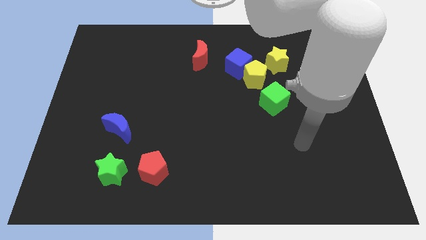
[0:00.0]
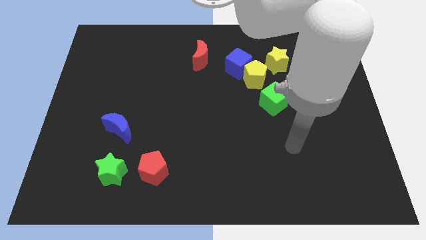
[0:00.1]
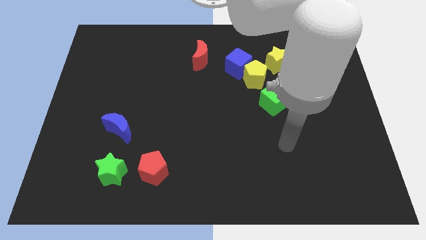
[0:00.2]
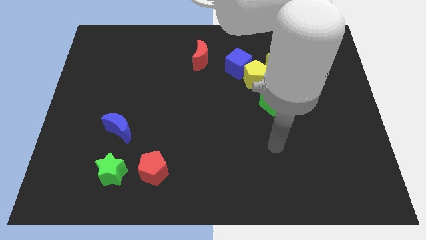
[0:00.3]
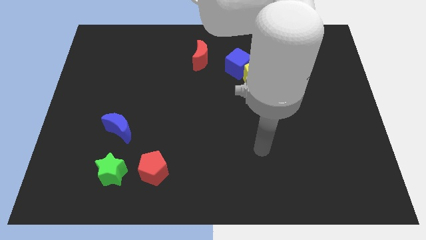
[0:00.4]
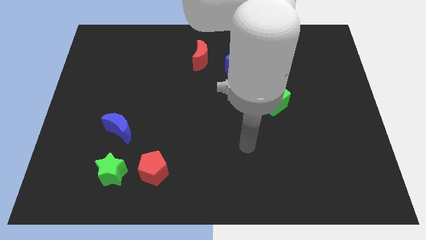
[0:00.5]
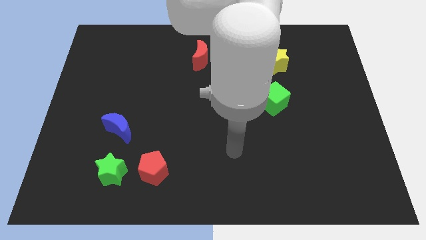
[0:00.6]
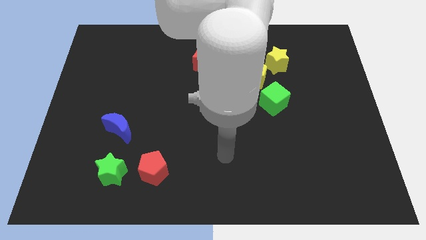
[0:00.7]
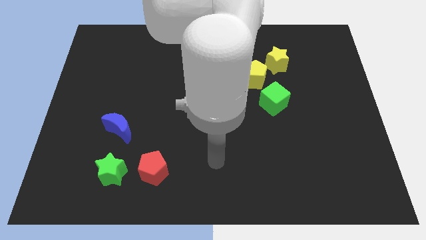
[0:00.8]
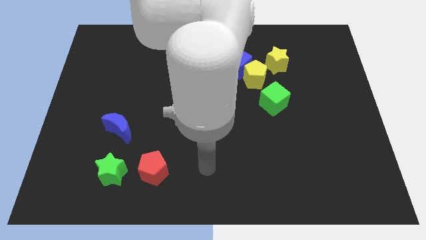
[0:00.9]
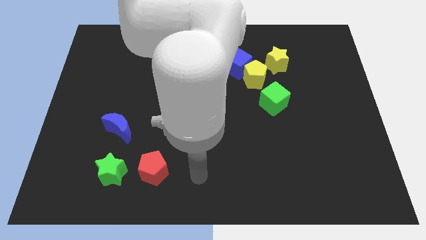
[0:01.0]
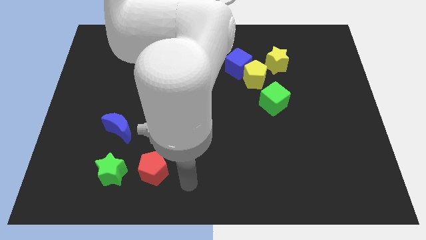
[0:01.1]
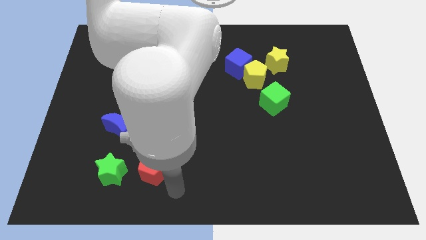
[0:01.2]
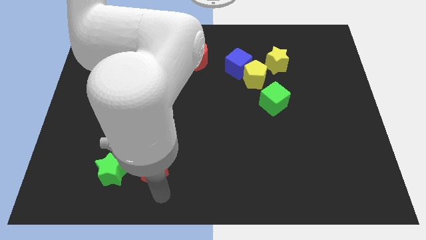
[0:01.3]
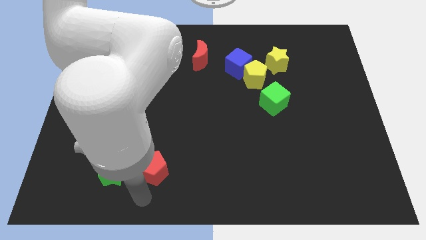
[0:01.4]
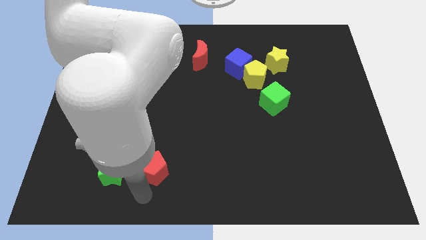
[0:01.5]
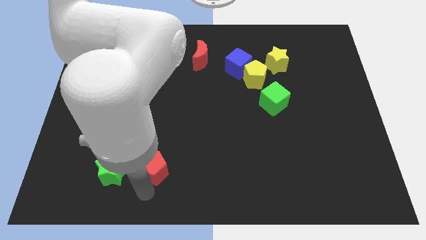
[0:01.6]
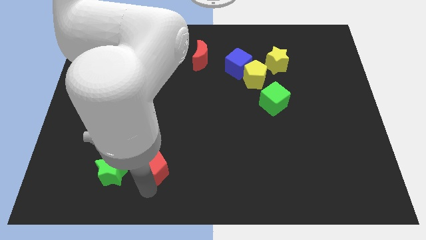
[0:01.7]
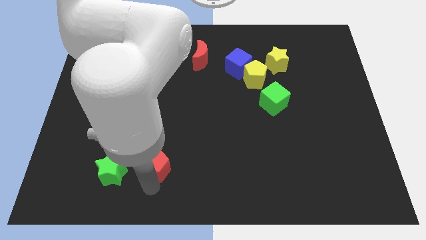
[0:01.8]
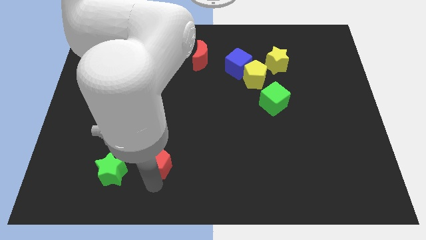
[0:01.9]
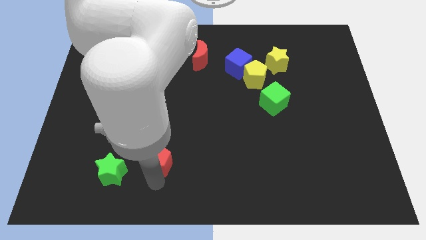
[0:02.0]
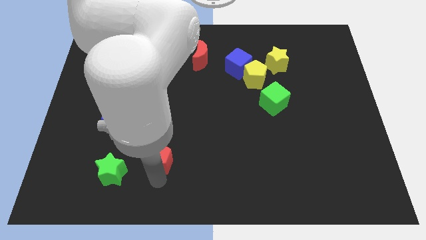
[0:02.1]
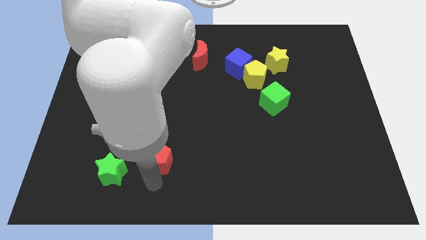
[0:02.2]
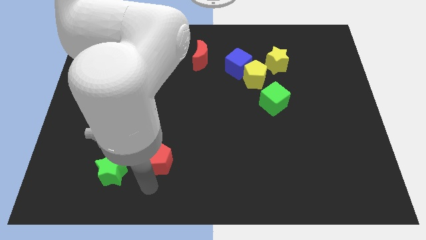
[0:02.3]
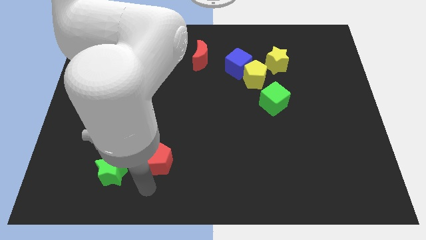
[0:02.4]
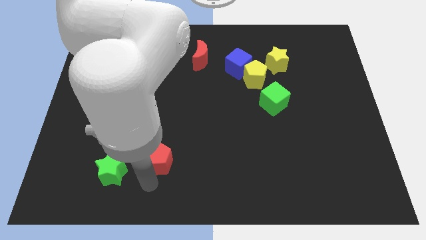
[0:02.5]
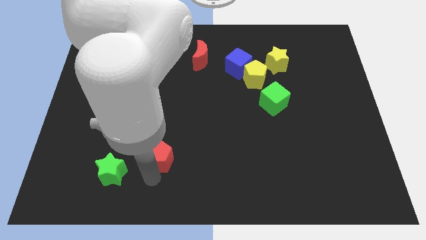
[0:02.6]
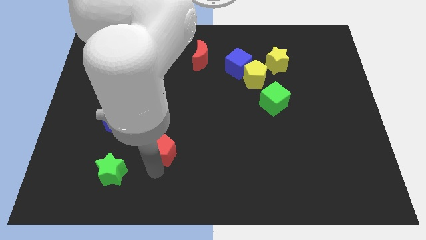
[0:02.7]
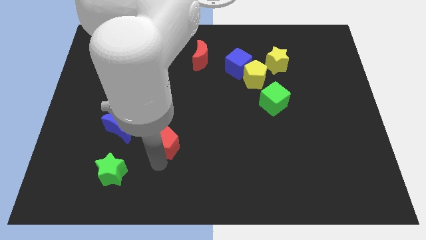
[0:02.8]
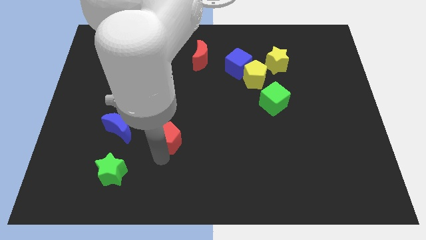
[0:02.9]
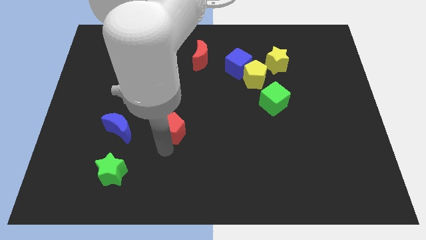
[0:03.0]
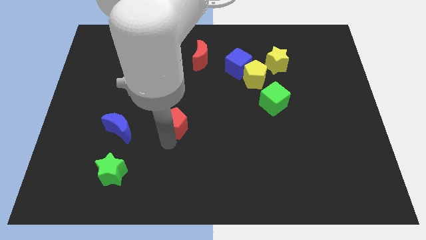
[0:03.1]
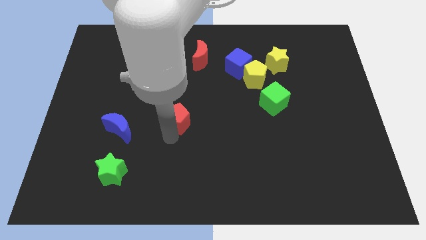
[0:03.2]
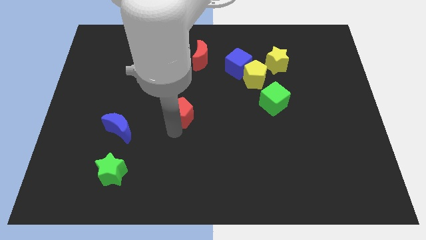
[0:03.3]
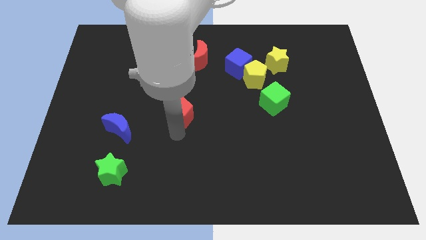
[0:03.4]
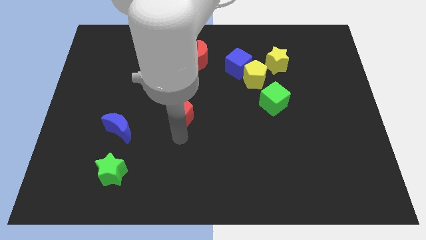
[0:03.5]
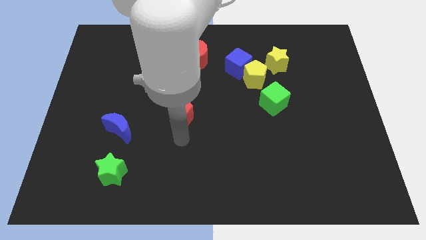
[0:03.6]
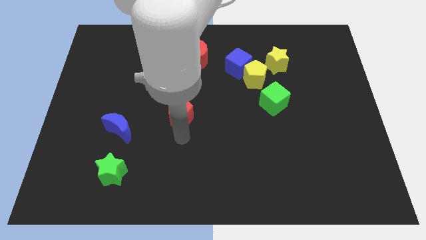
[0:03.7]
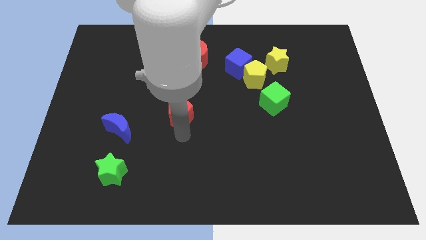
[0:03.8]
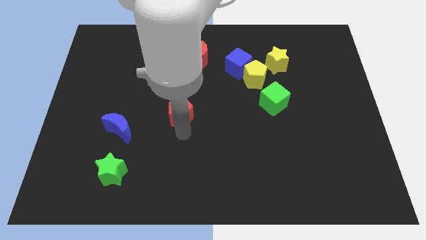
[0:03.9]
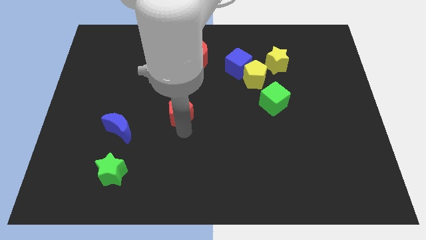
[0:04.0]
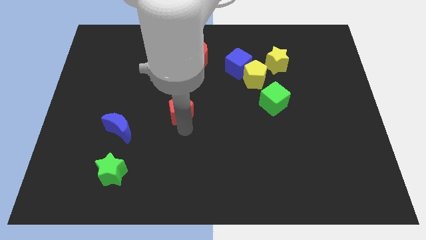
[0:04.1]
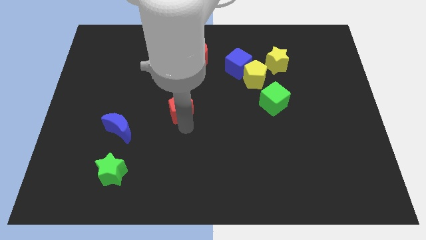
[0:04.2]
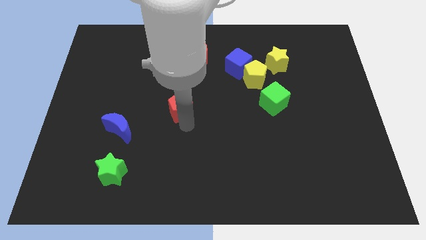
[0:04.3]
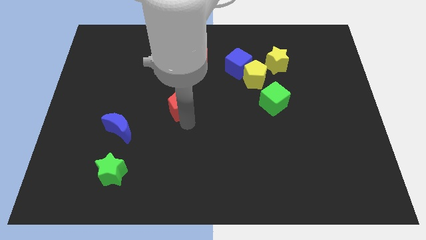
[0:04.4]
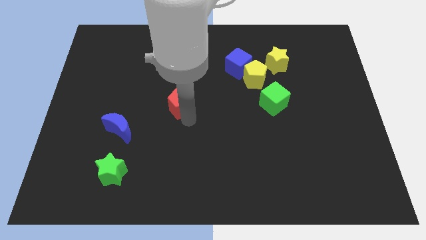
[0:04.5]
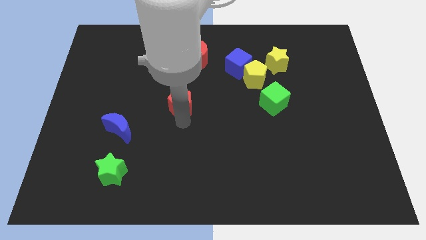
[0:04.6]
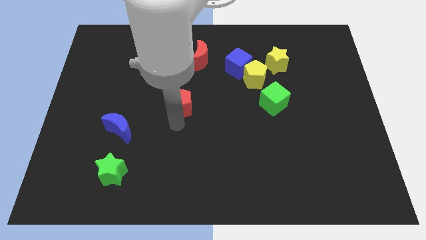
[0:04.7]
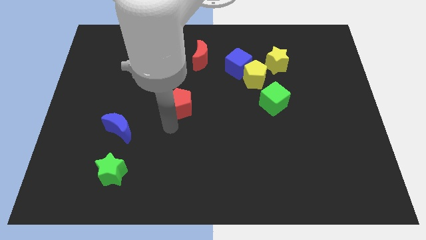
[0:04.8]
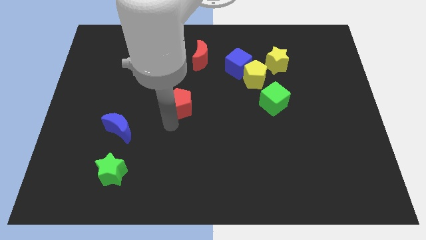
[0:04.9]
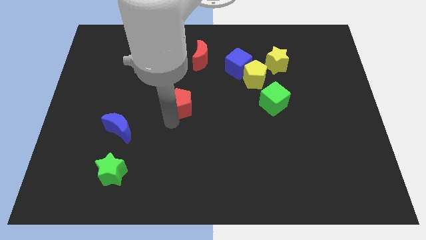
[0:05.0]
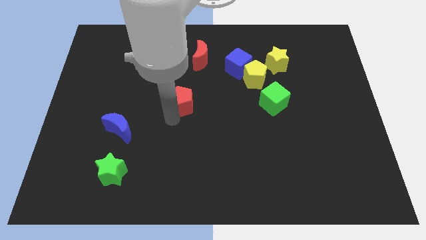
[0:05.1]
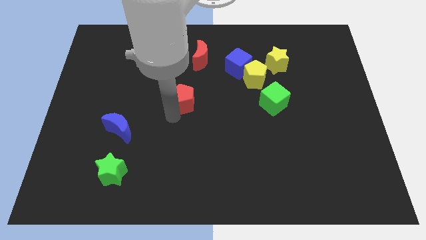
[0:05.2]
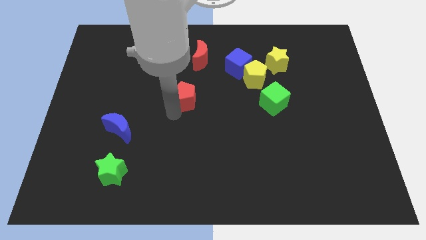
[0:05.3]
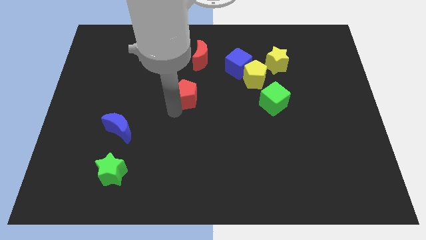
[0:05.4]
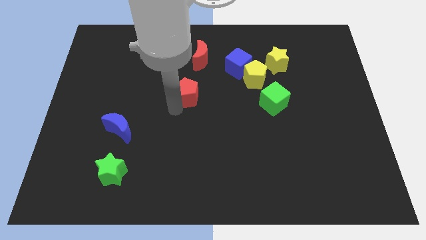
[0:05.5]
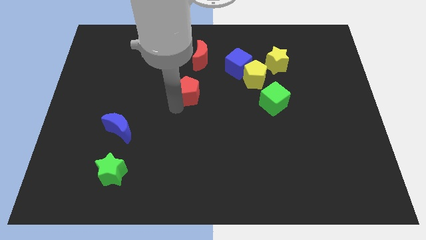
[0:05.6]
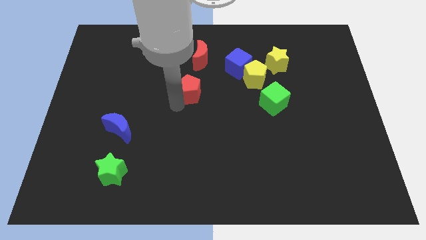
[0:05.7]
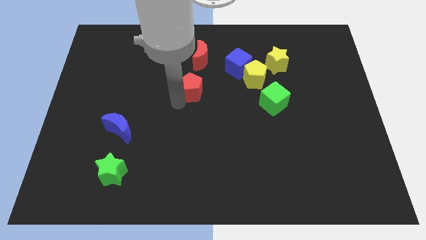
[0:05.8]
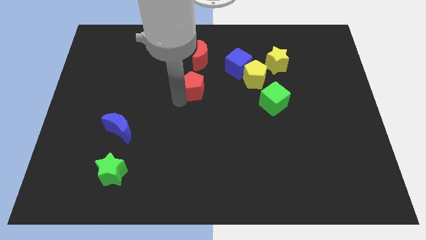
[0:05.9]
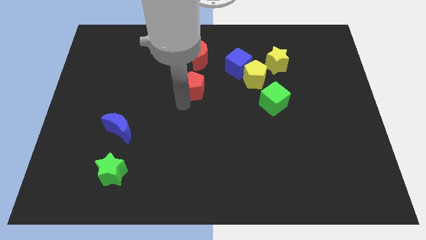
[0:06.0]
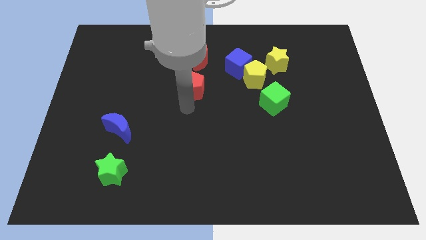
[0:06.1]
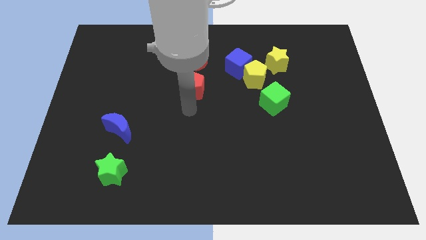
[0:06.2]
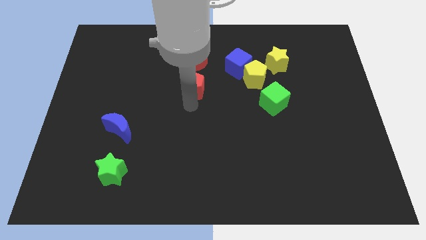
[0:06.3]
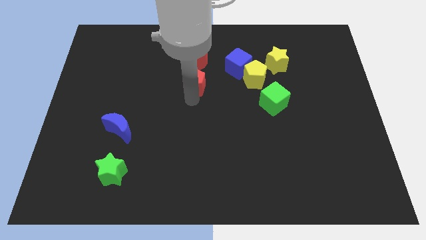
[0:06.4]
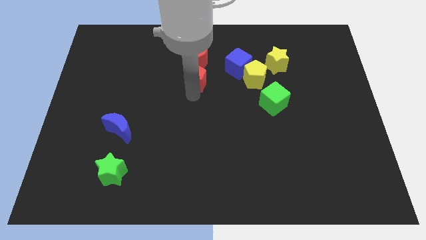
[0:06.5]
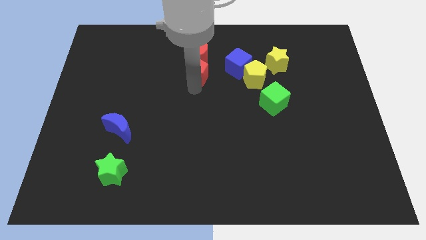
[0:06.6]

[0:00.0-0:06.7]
slide the red pentagon close to the red moon

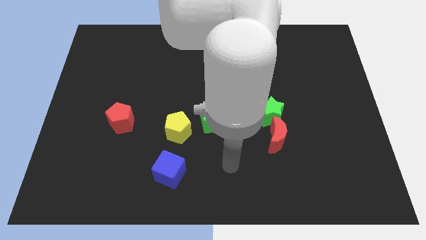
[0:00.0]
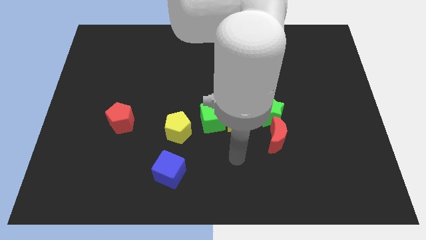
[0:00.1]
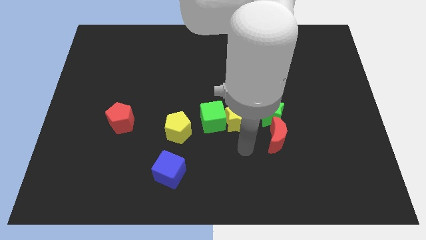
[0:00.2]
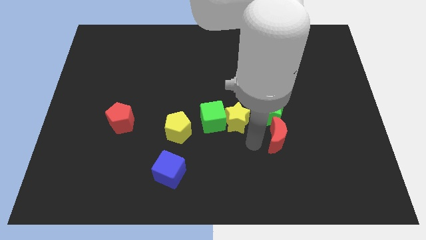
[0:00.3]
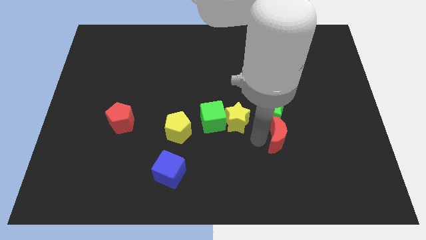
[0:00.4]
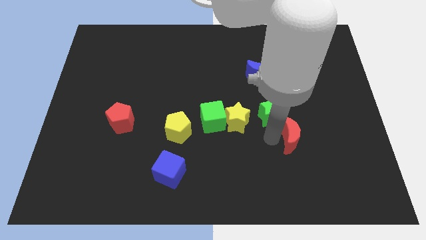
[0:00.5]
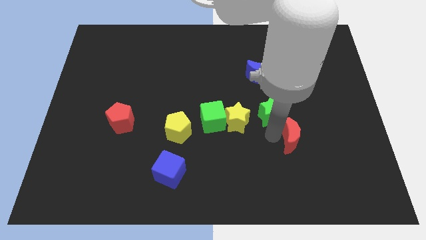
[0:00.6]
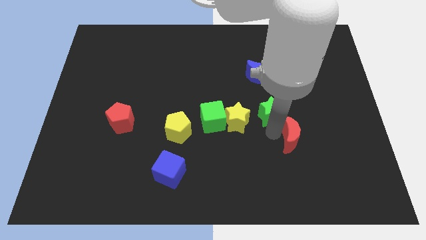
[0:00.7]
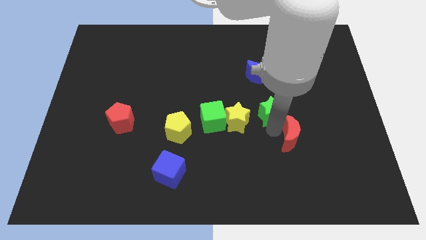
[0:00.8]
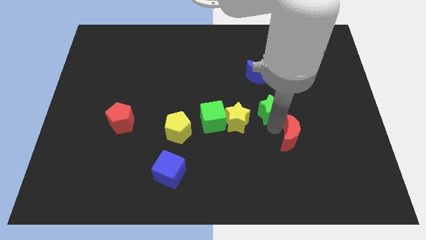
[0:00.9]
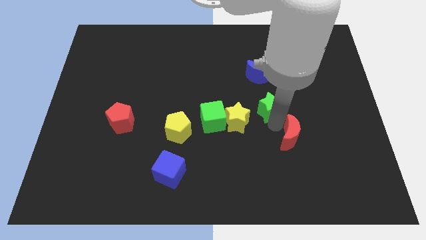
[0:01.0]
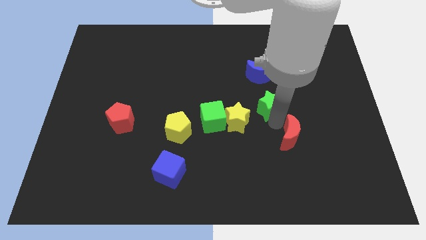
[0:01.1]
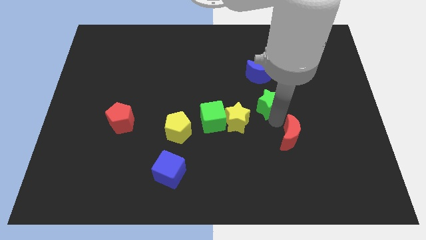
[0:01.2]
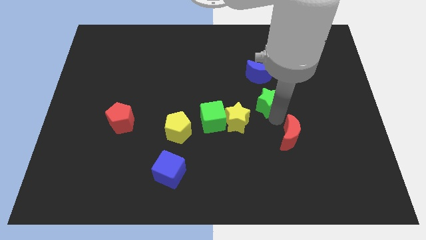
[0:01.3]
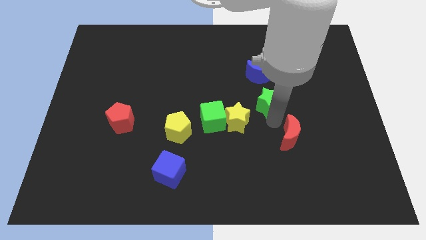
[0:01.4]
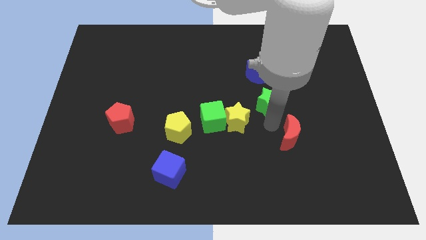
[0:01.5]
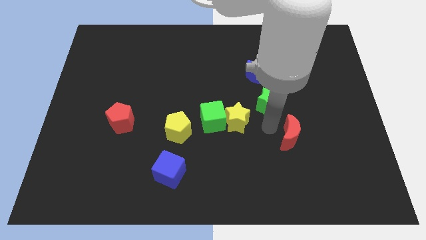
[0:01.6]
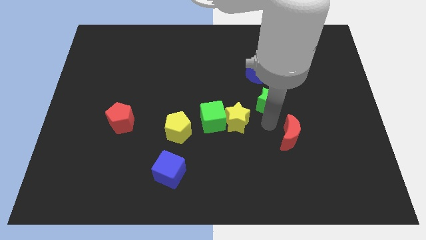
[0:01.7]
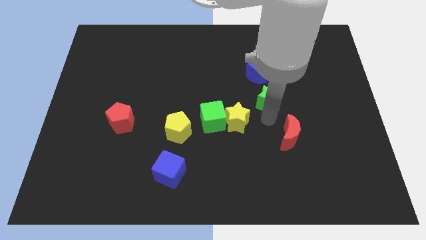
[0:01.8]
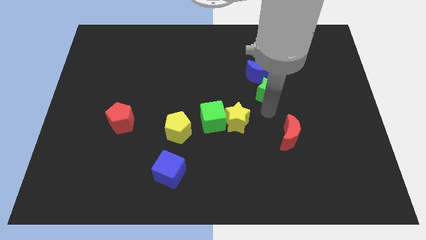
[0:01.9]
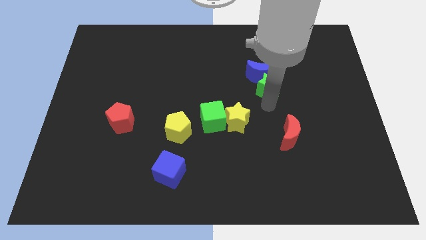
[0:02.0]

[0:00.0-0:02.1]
slide the green star next to the blue moon
